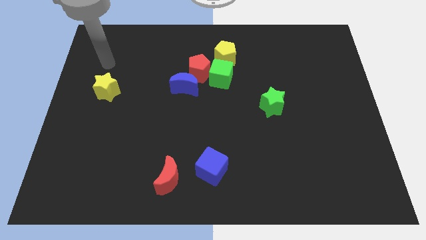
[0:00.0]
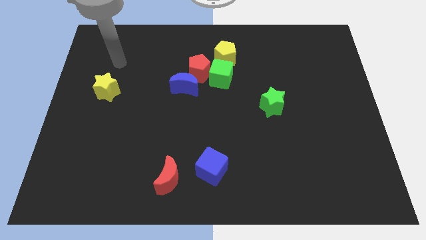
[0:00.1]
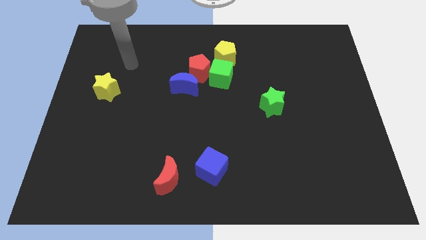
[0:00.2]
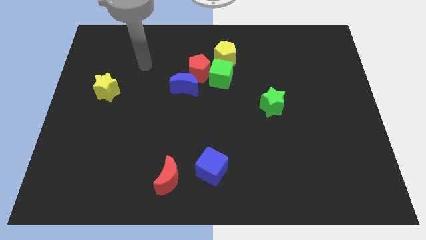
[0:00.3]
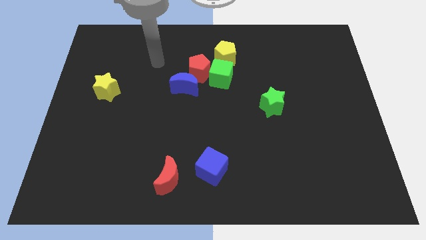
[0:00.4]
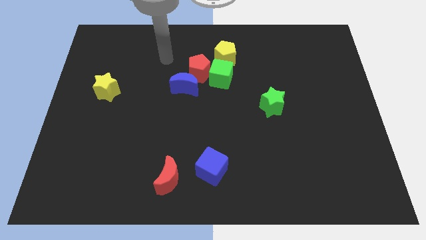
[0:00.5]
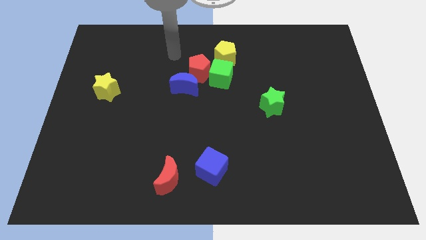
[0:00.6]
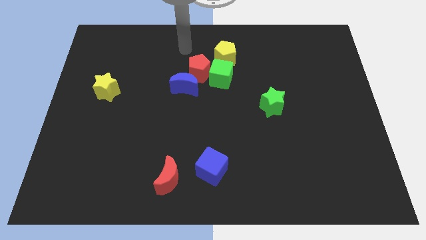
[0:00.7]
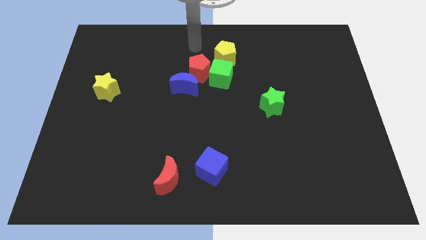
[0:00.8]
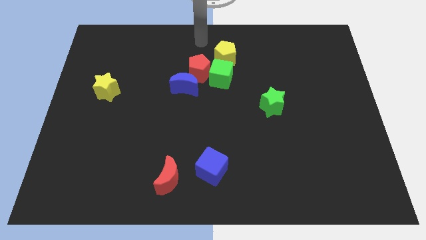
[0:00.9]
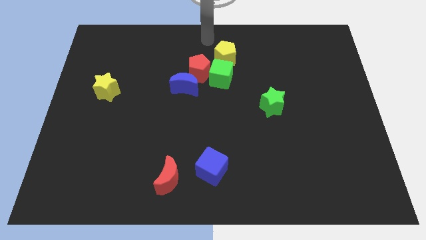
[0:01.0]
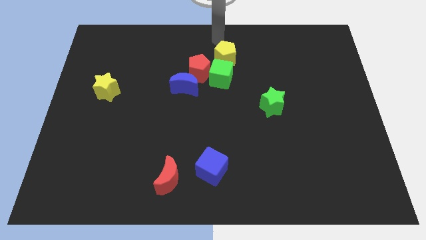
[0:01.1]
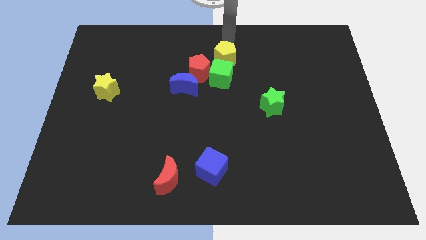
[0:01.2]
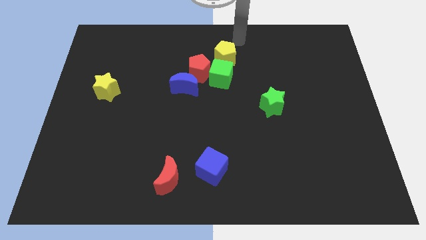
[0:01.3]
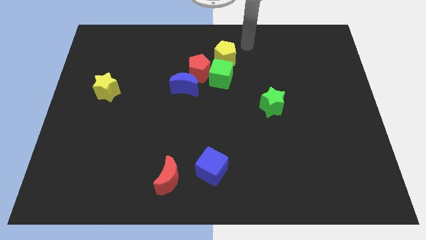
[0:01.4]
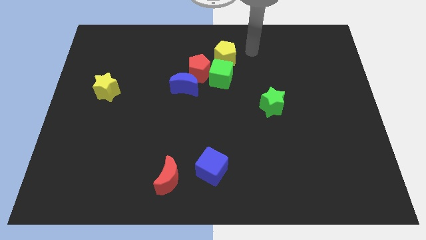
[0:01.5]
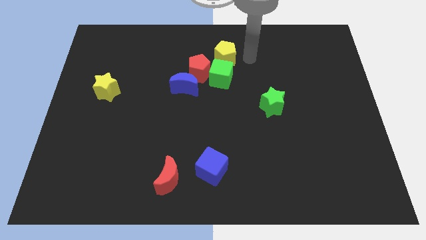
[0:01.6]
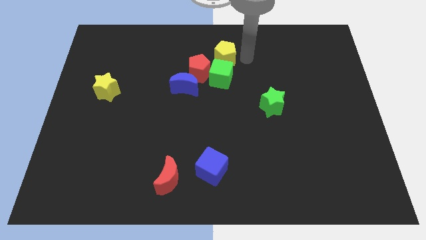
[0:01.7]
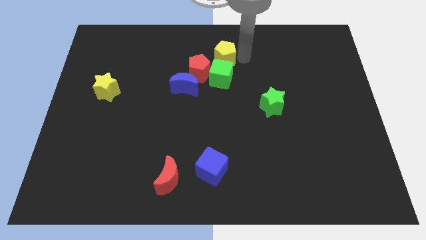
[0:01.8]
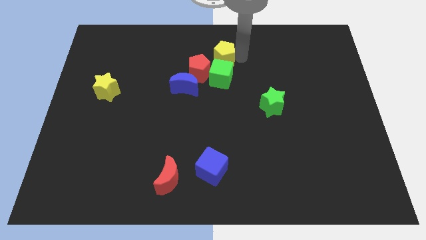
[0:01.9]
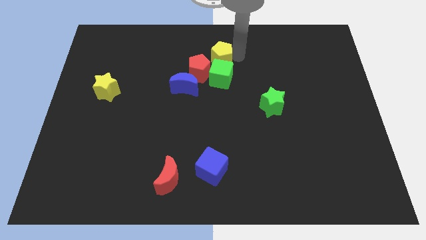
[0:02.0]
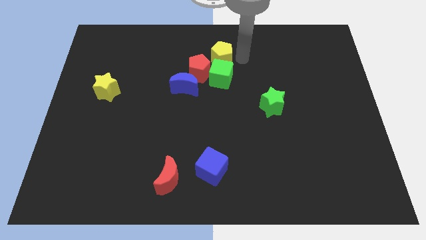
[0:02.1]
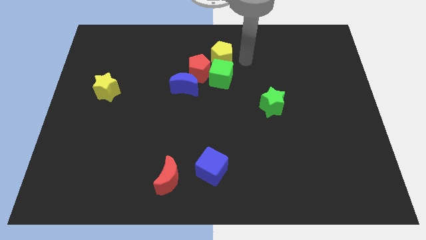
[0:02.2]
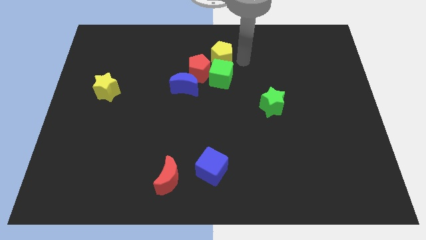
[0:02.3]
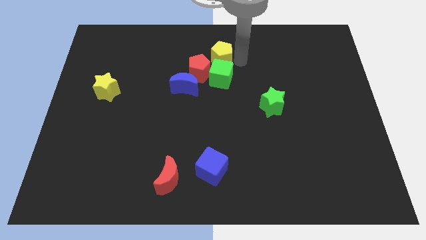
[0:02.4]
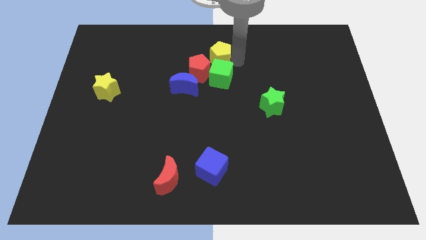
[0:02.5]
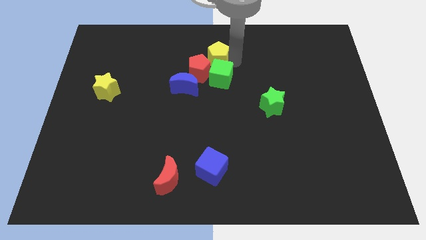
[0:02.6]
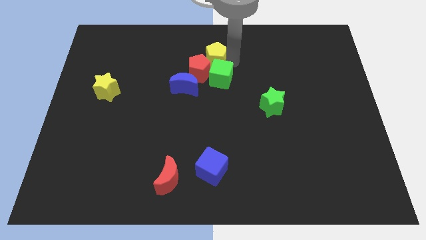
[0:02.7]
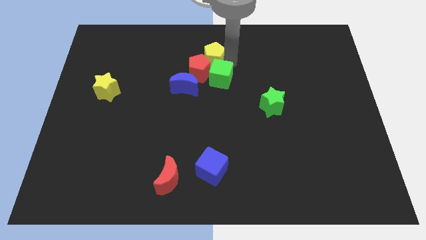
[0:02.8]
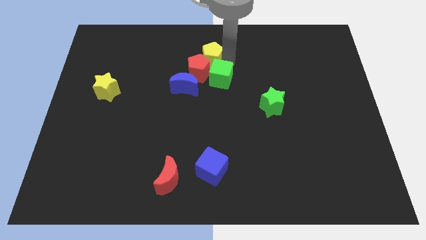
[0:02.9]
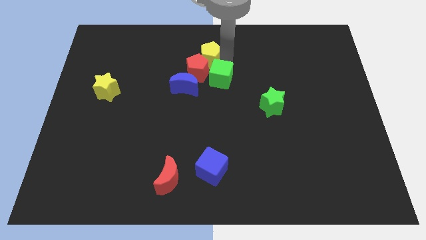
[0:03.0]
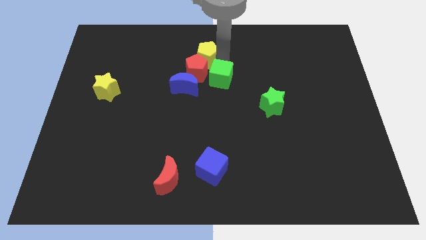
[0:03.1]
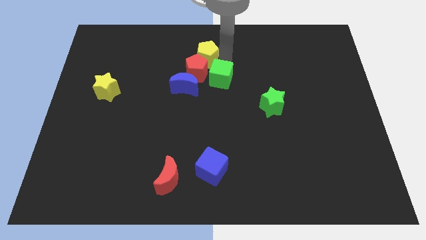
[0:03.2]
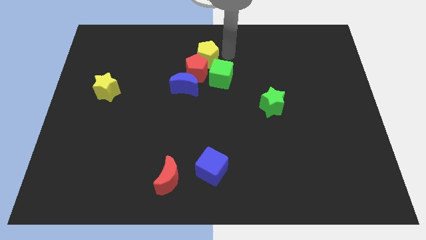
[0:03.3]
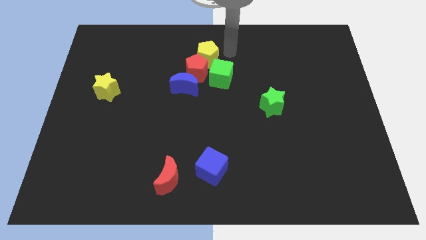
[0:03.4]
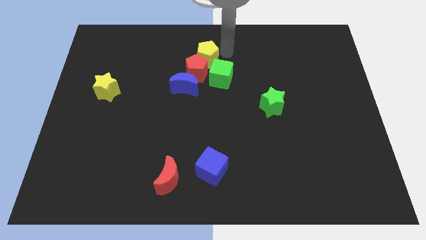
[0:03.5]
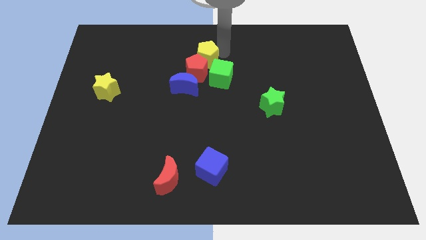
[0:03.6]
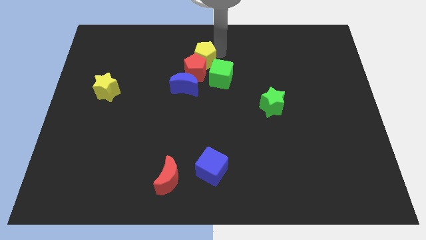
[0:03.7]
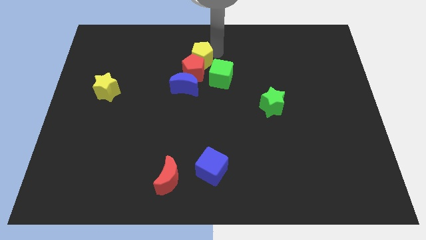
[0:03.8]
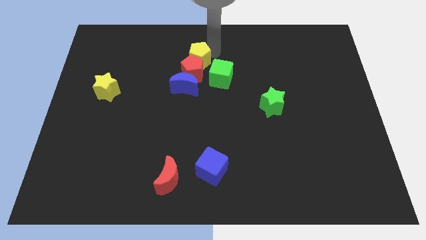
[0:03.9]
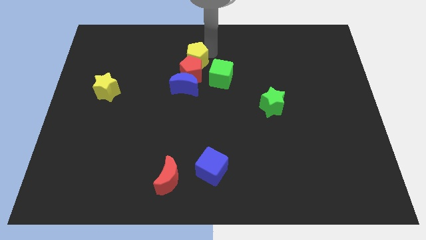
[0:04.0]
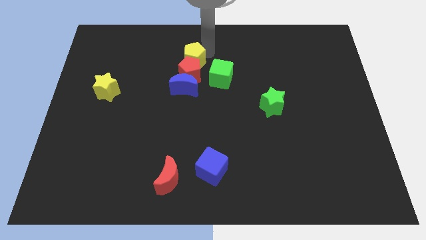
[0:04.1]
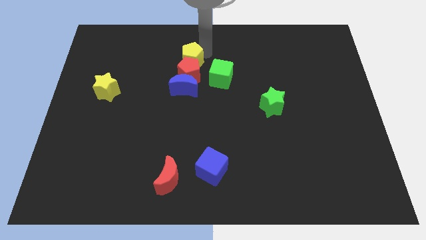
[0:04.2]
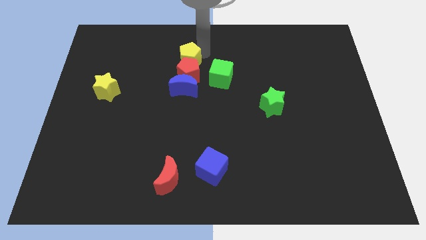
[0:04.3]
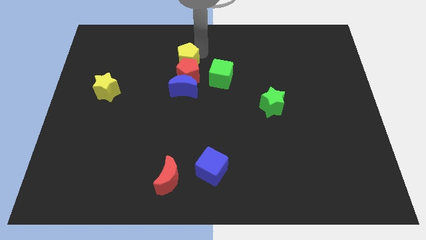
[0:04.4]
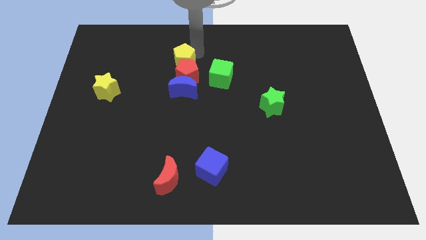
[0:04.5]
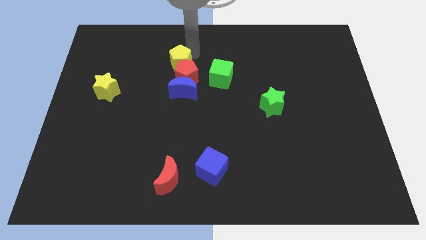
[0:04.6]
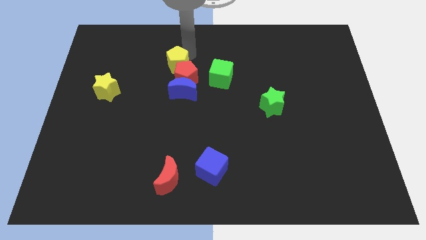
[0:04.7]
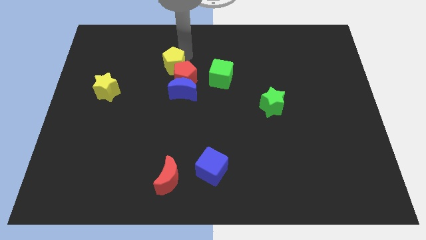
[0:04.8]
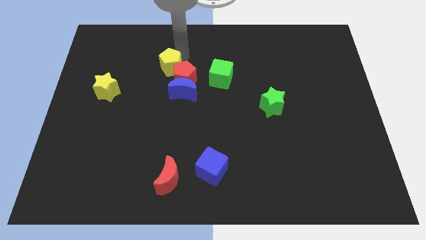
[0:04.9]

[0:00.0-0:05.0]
push the yellow pentagon just left of the red pentagon

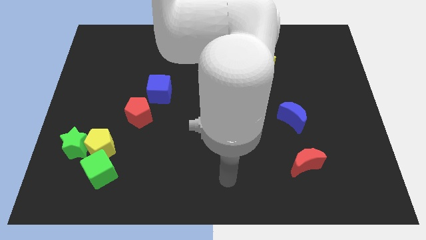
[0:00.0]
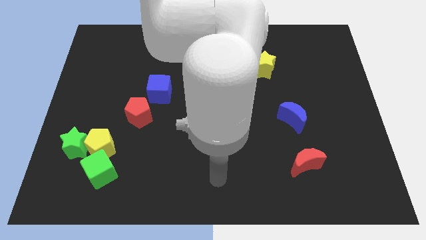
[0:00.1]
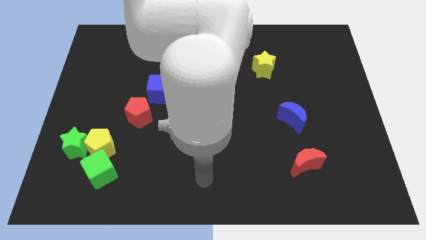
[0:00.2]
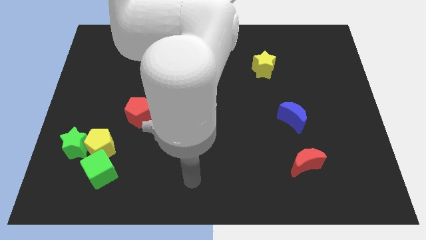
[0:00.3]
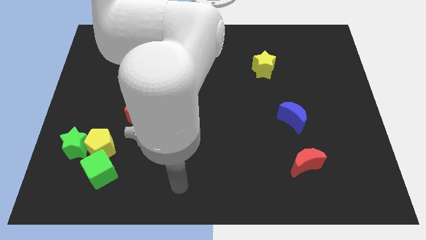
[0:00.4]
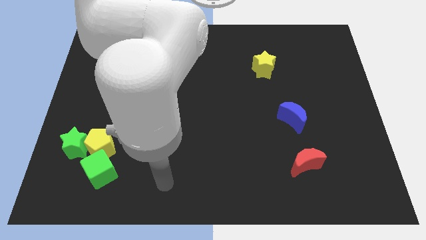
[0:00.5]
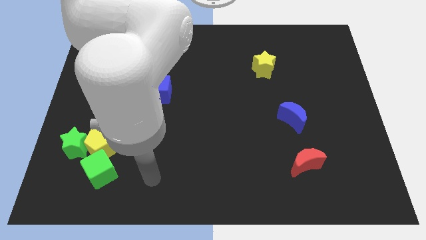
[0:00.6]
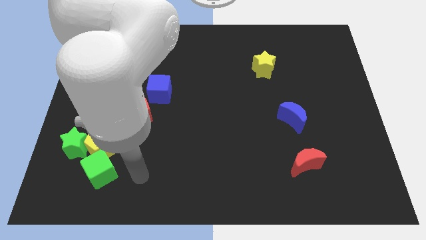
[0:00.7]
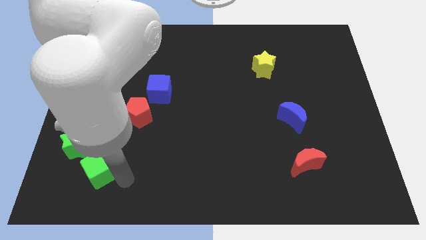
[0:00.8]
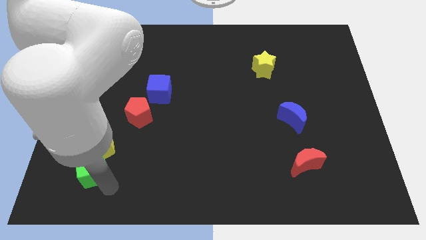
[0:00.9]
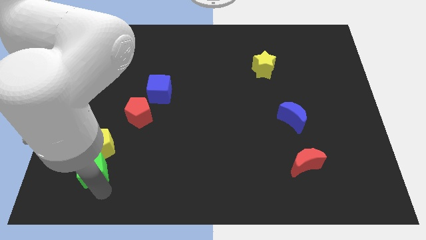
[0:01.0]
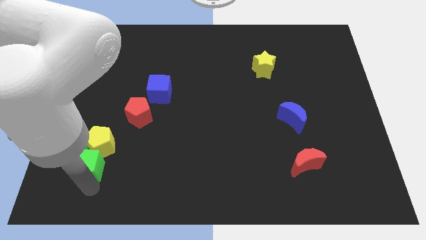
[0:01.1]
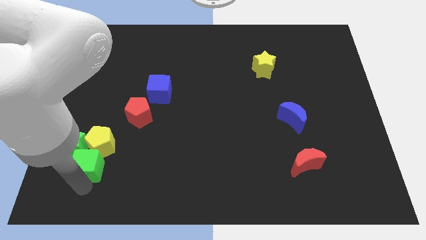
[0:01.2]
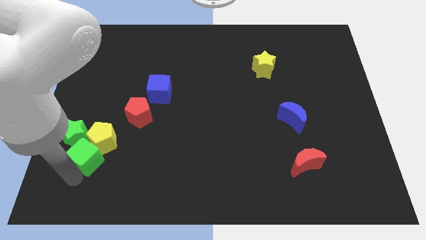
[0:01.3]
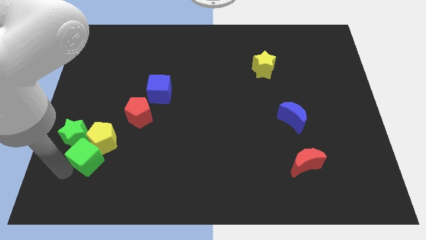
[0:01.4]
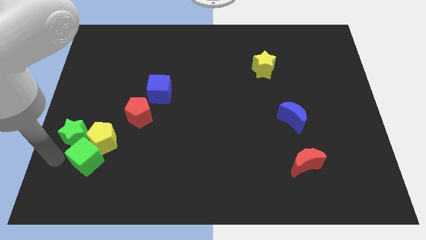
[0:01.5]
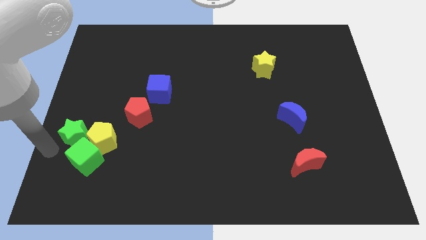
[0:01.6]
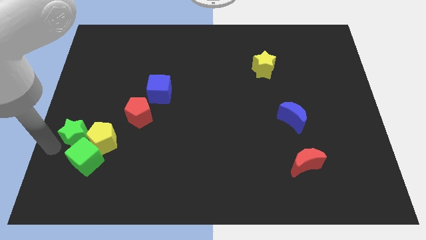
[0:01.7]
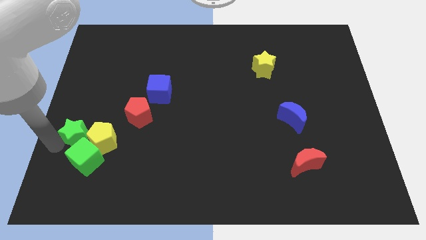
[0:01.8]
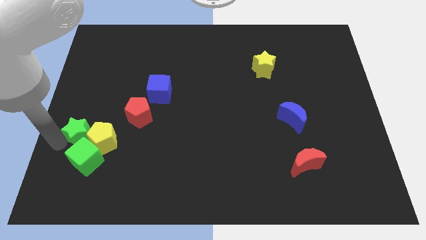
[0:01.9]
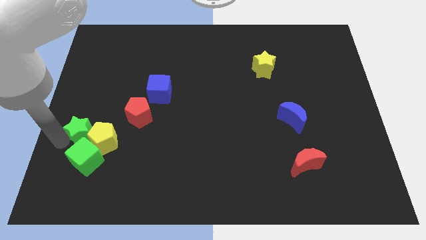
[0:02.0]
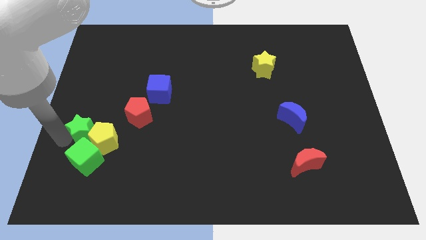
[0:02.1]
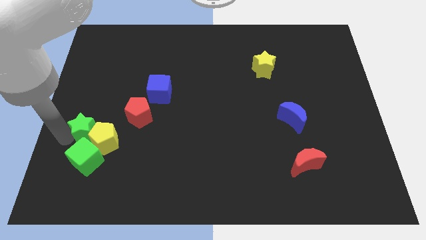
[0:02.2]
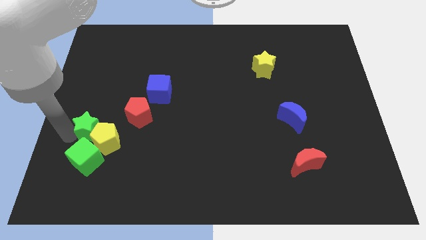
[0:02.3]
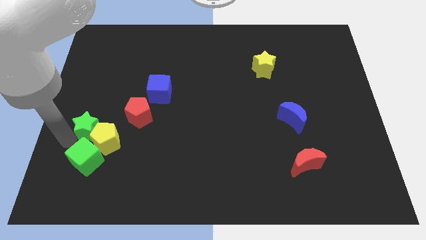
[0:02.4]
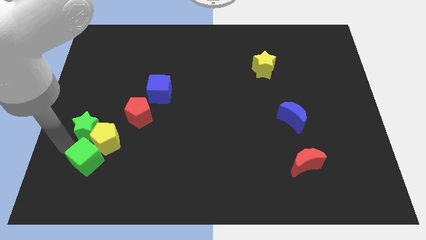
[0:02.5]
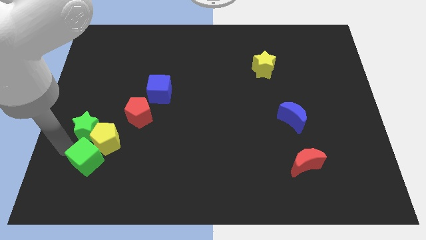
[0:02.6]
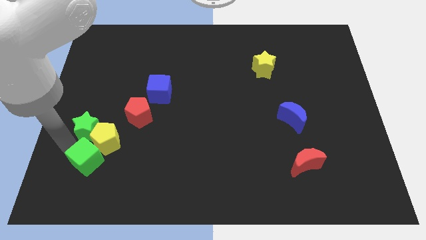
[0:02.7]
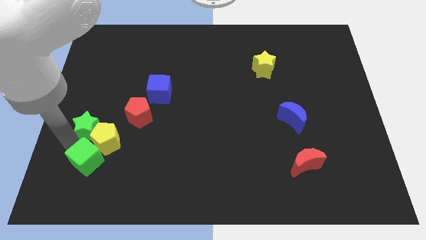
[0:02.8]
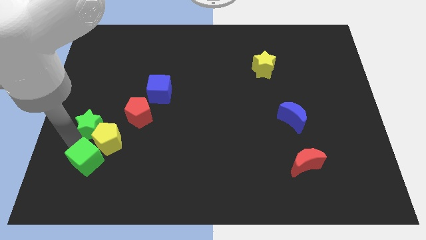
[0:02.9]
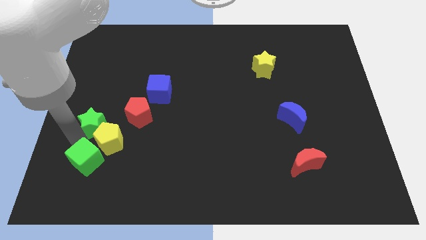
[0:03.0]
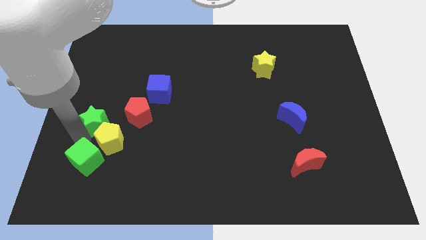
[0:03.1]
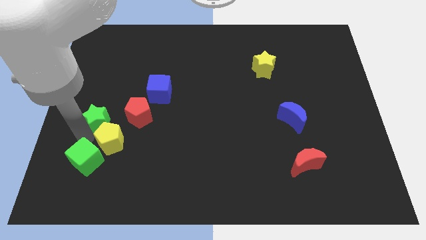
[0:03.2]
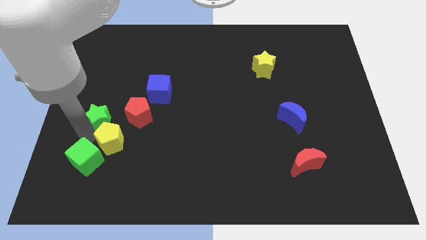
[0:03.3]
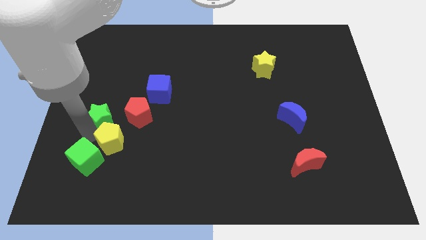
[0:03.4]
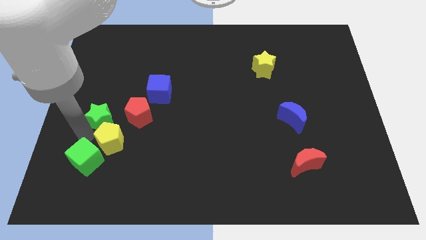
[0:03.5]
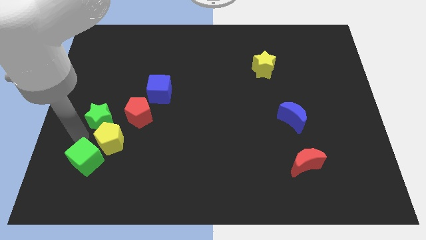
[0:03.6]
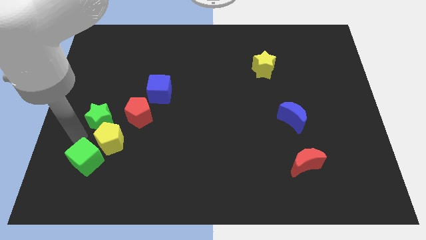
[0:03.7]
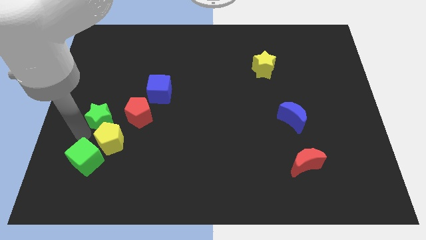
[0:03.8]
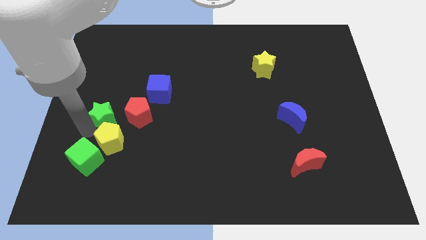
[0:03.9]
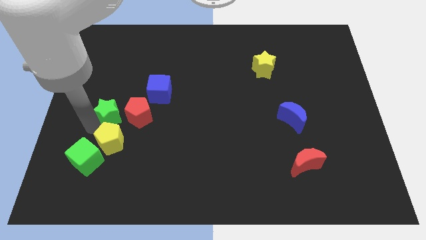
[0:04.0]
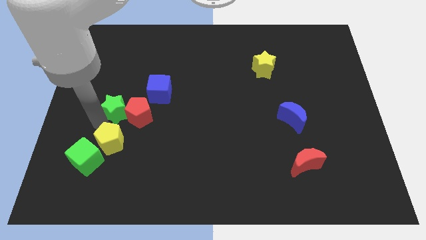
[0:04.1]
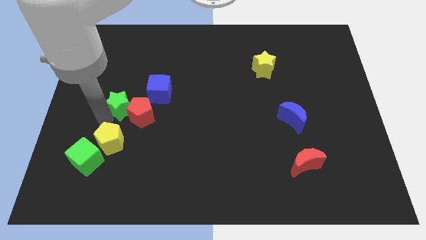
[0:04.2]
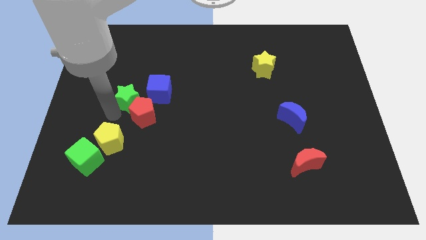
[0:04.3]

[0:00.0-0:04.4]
put the green star above the red pentagon
